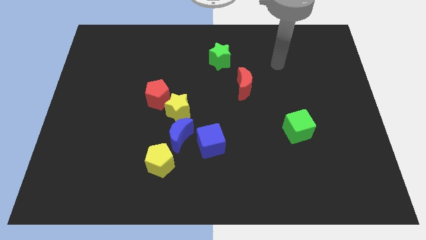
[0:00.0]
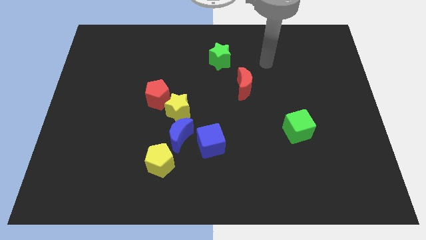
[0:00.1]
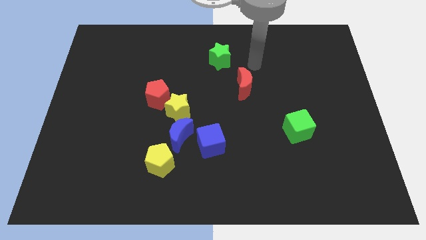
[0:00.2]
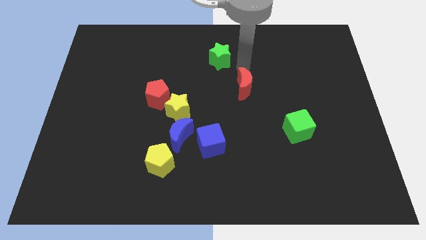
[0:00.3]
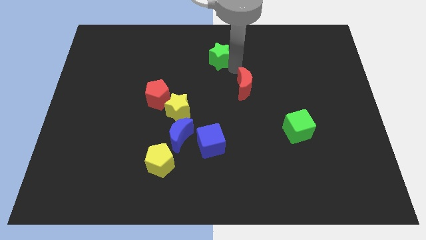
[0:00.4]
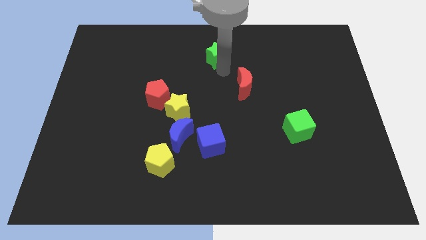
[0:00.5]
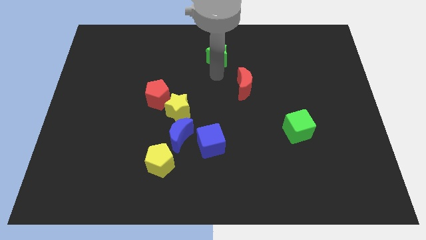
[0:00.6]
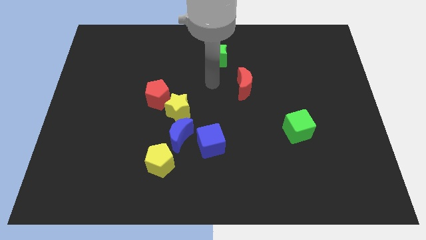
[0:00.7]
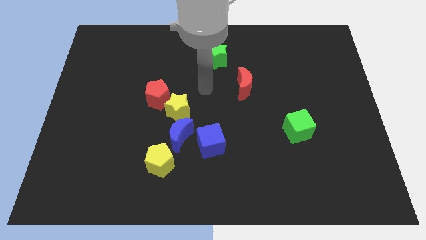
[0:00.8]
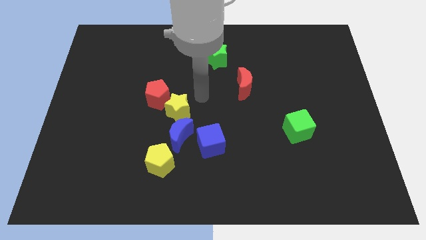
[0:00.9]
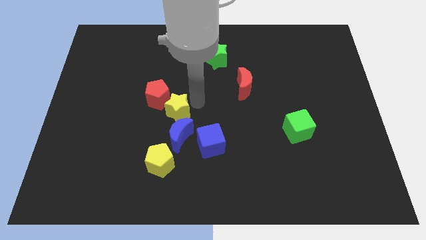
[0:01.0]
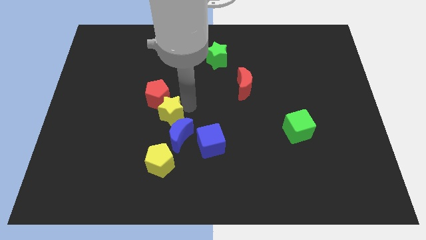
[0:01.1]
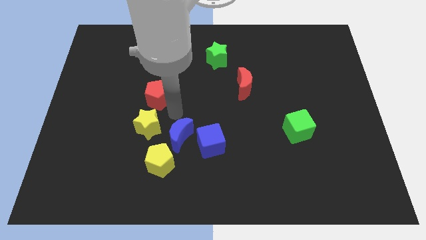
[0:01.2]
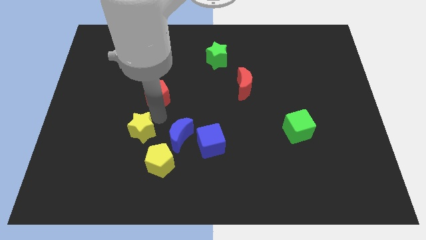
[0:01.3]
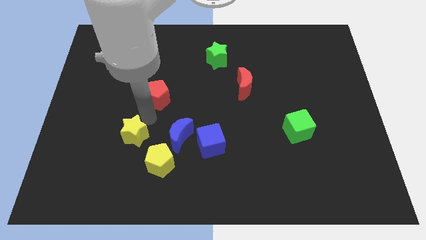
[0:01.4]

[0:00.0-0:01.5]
pull the red pentagon apart from the yellow star

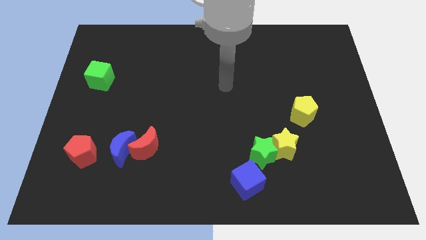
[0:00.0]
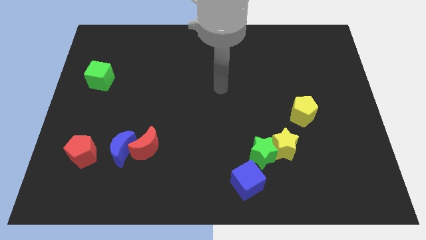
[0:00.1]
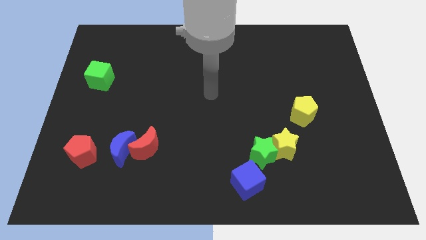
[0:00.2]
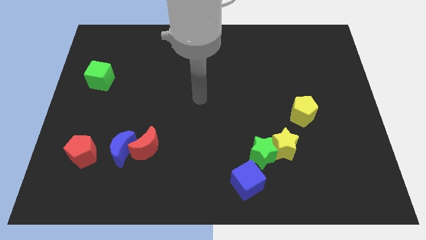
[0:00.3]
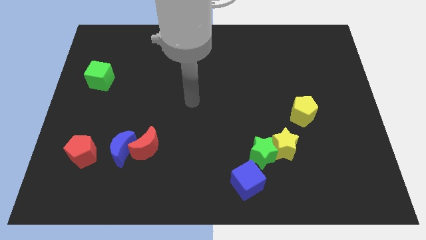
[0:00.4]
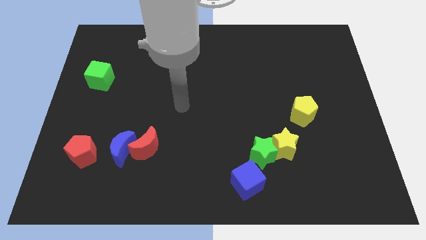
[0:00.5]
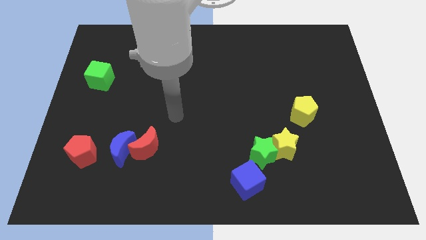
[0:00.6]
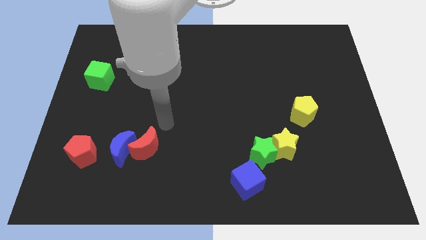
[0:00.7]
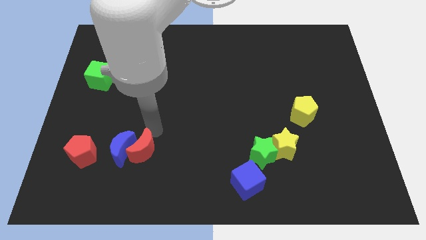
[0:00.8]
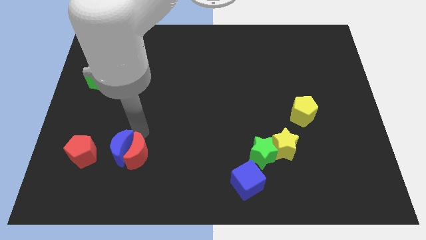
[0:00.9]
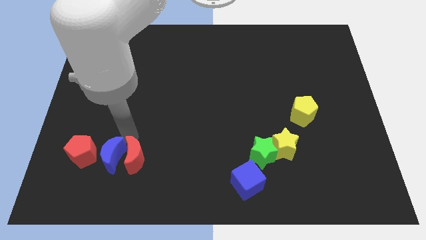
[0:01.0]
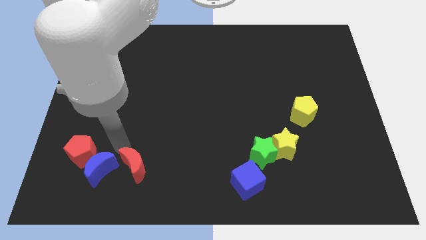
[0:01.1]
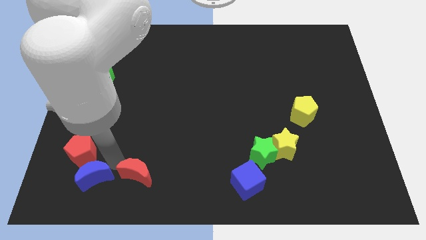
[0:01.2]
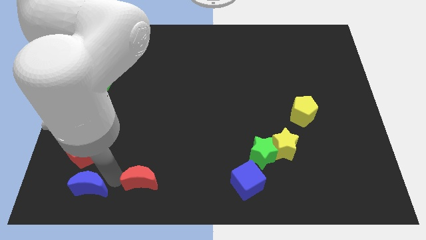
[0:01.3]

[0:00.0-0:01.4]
separate the red moon from the blue moon

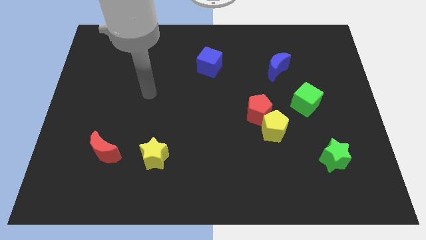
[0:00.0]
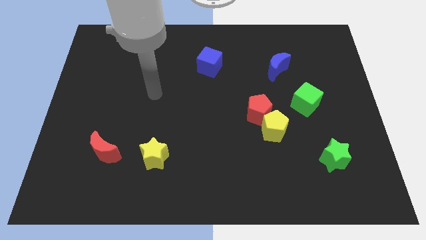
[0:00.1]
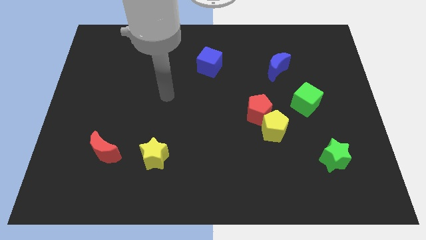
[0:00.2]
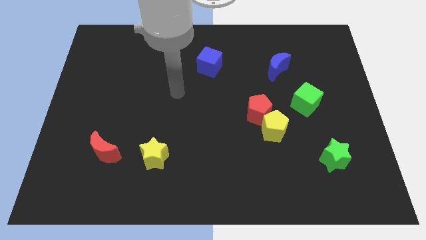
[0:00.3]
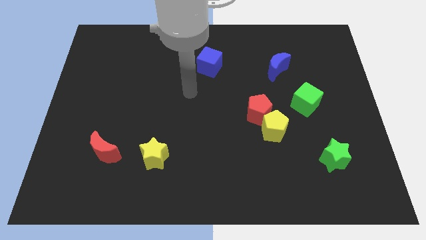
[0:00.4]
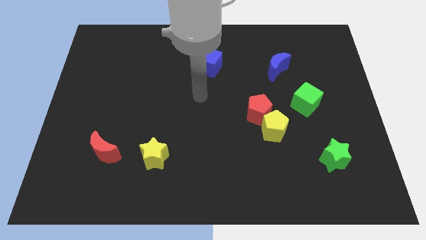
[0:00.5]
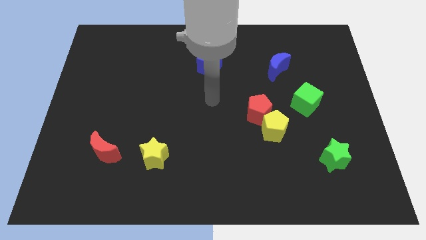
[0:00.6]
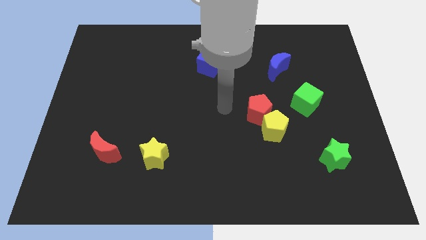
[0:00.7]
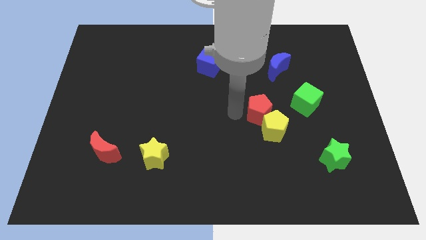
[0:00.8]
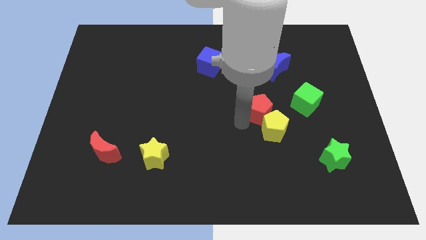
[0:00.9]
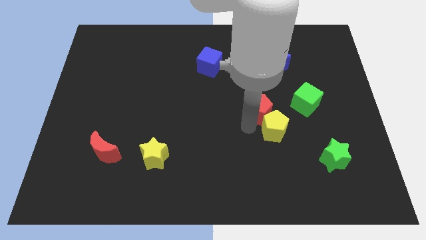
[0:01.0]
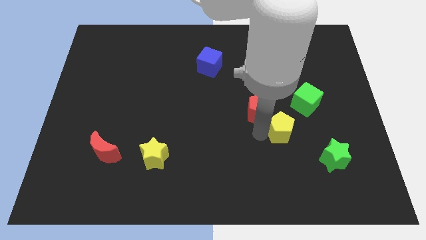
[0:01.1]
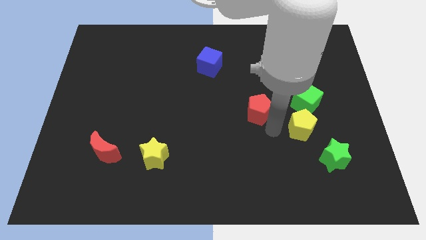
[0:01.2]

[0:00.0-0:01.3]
move the red pentagon away from the yellow pentagon

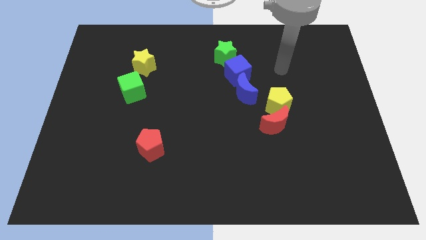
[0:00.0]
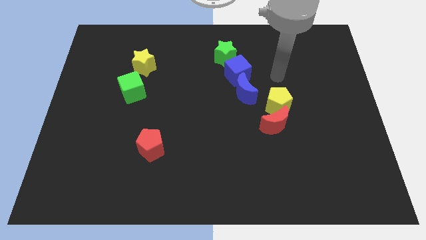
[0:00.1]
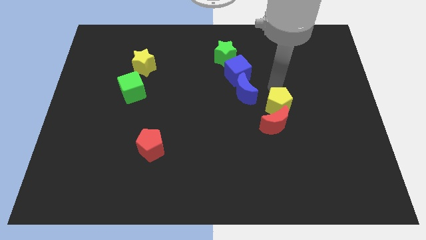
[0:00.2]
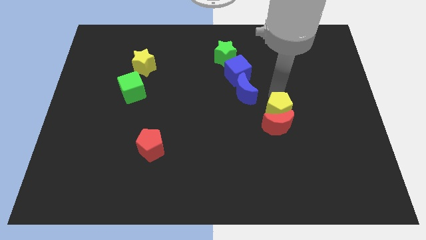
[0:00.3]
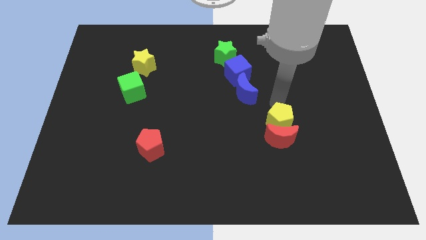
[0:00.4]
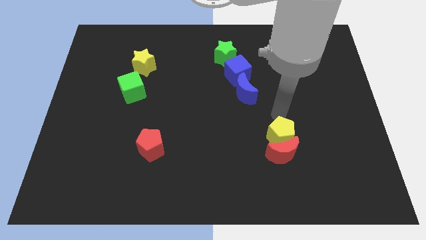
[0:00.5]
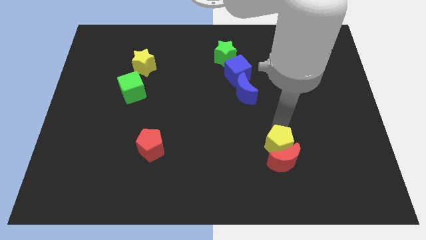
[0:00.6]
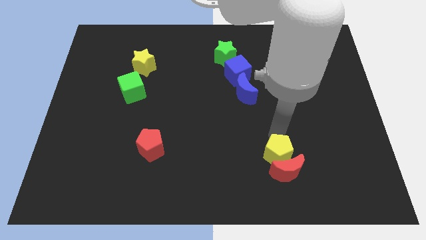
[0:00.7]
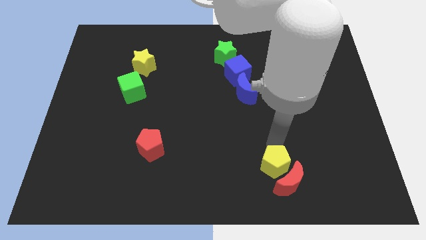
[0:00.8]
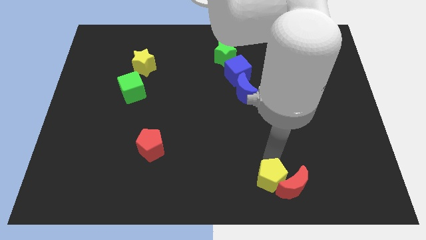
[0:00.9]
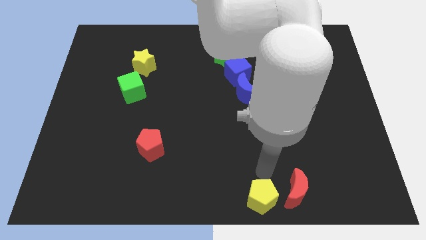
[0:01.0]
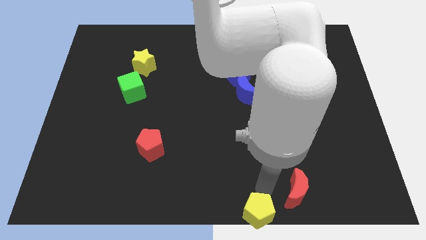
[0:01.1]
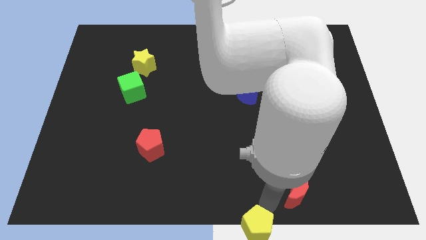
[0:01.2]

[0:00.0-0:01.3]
separate the red moon from the yellow pentagon

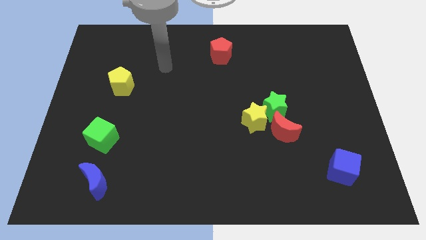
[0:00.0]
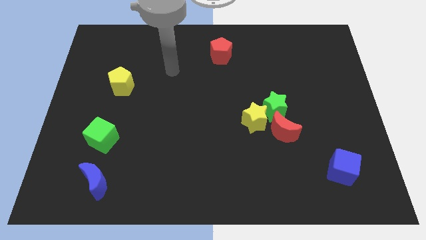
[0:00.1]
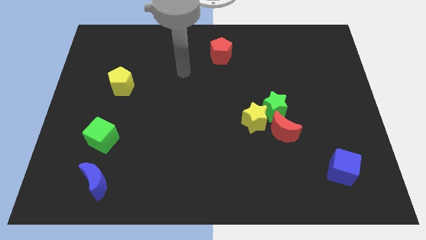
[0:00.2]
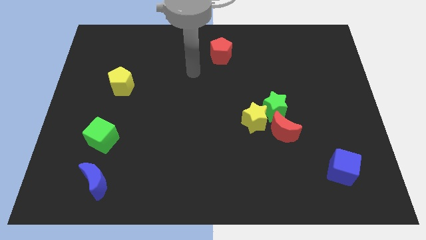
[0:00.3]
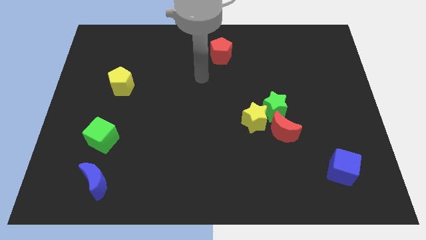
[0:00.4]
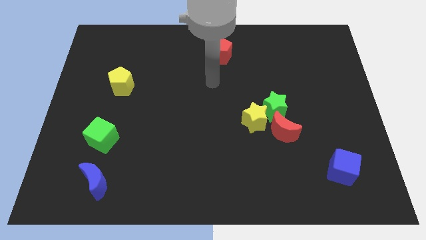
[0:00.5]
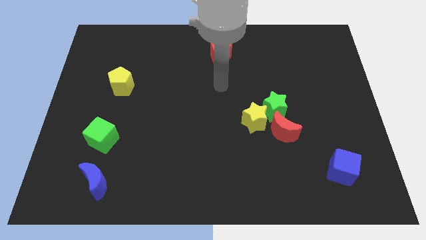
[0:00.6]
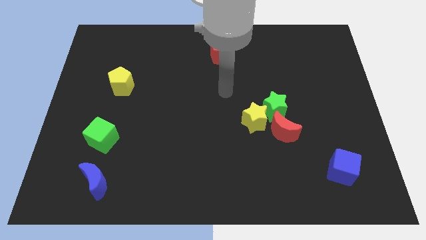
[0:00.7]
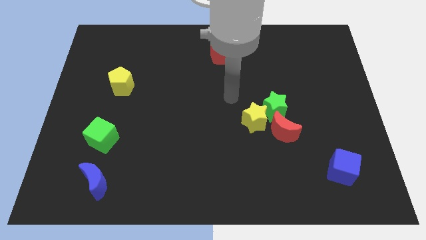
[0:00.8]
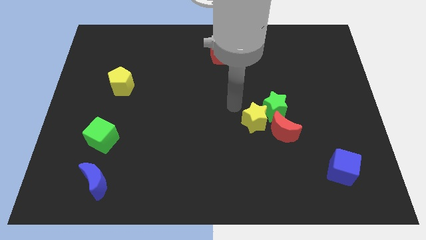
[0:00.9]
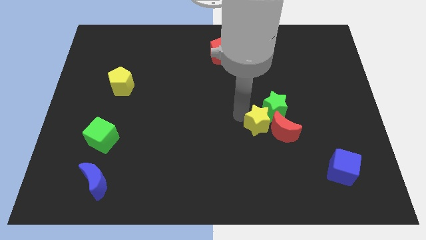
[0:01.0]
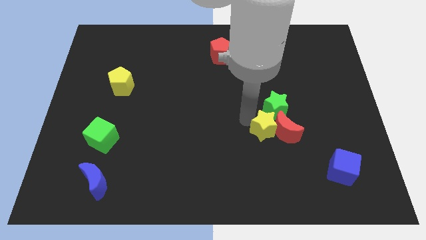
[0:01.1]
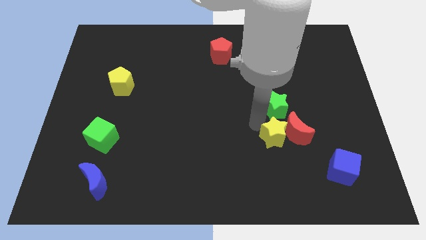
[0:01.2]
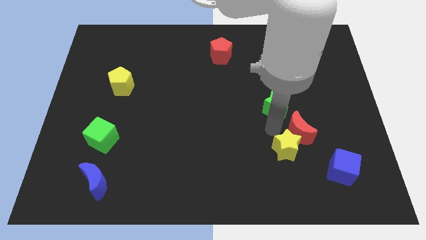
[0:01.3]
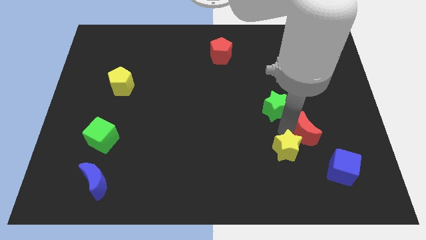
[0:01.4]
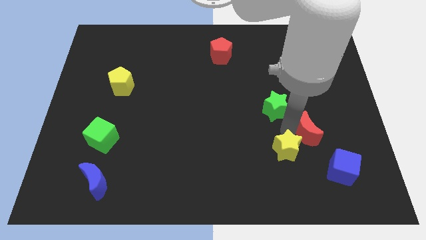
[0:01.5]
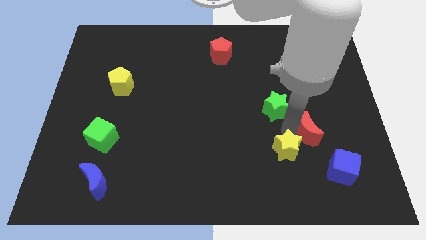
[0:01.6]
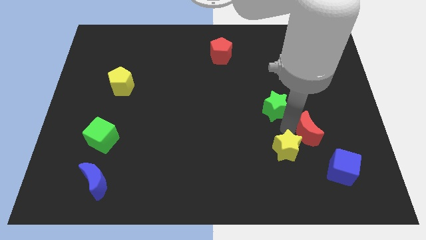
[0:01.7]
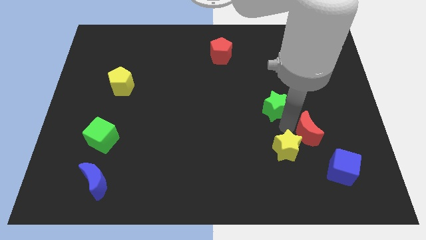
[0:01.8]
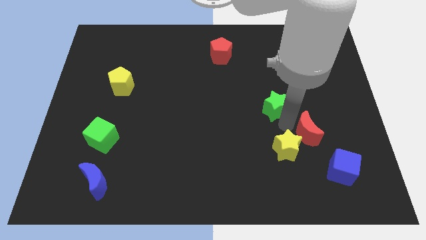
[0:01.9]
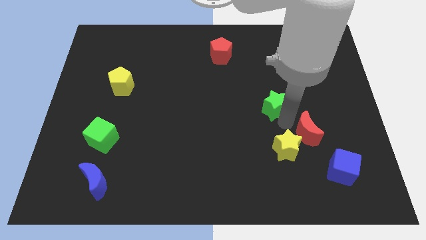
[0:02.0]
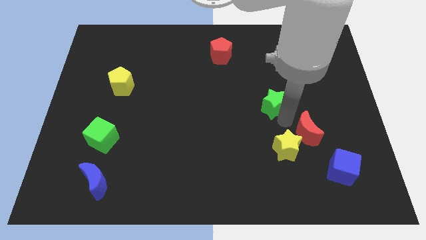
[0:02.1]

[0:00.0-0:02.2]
move the green star away from the yellow star and red moon

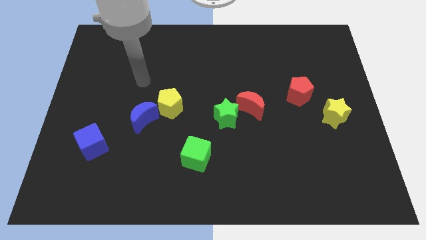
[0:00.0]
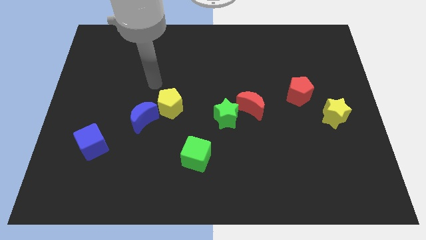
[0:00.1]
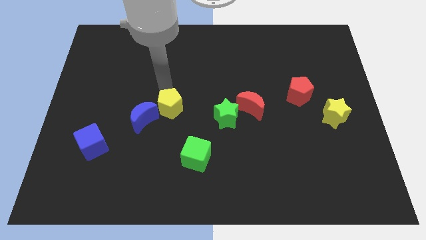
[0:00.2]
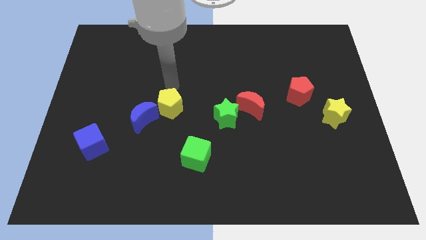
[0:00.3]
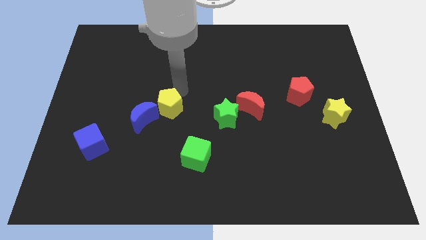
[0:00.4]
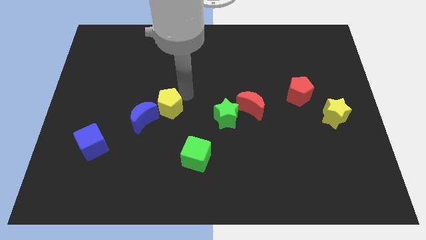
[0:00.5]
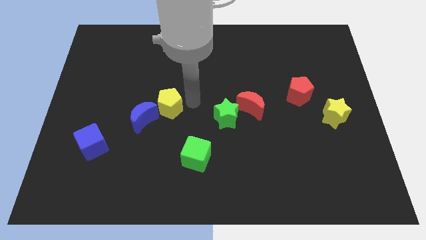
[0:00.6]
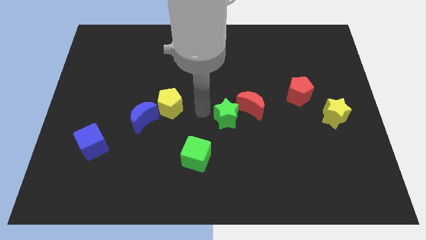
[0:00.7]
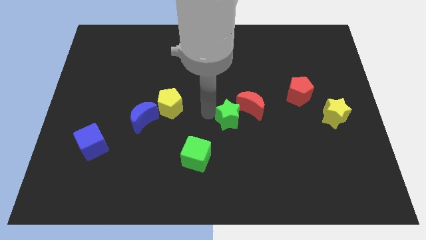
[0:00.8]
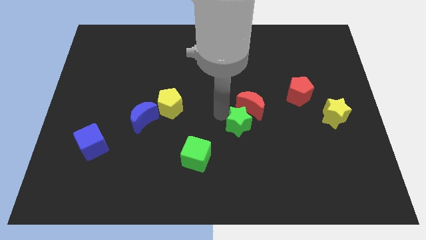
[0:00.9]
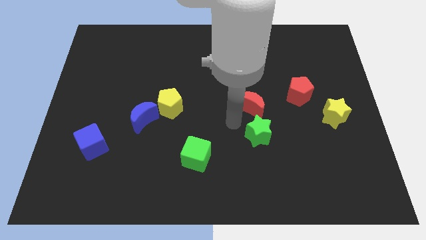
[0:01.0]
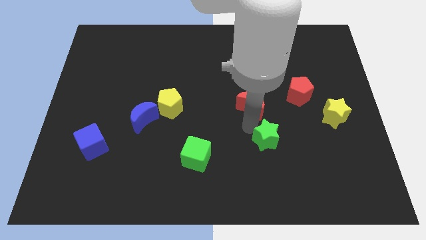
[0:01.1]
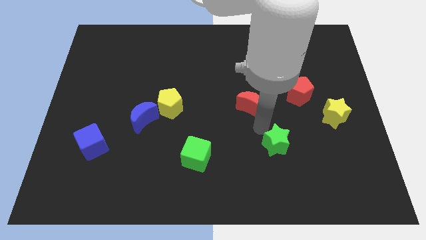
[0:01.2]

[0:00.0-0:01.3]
separate the red moon from the green star

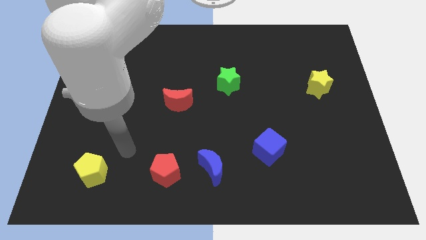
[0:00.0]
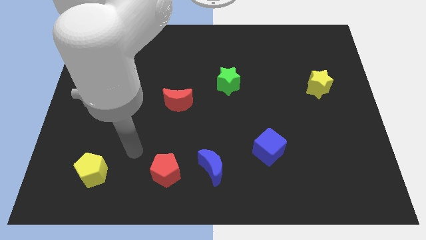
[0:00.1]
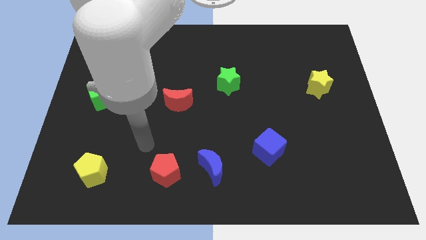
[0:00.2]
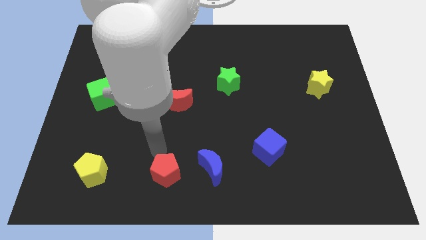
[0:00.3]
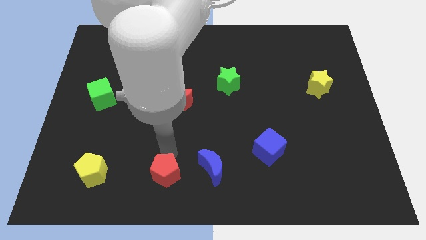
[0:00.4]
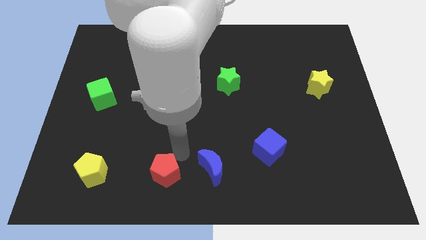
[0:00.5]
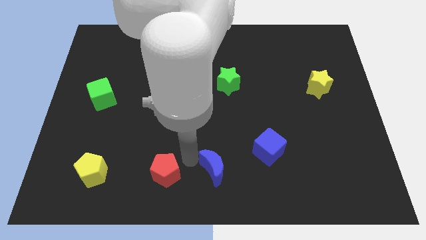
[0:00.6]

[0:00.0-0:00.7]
separate the red pentagon from the blue moon
